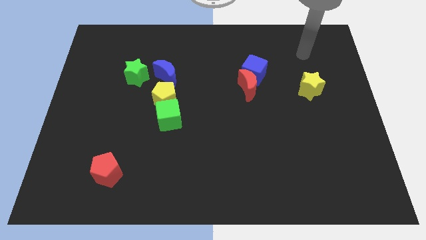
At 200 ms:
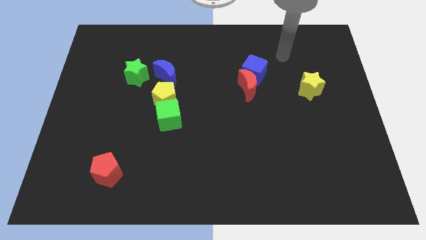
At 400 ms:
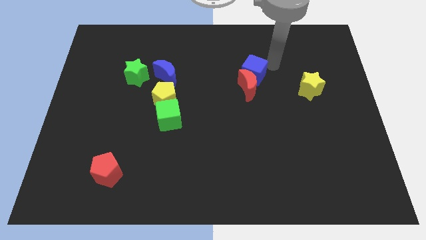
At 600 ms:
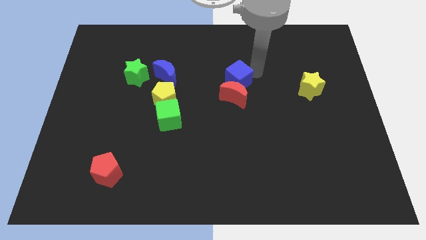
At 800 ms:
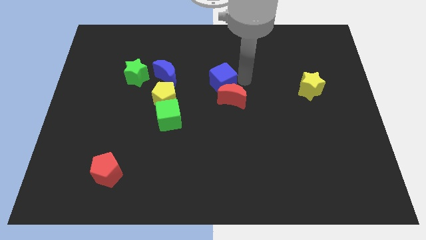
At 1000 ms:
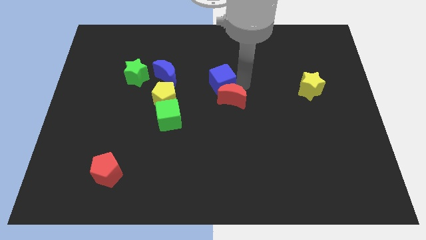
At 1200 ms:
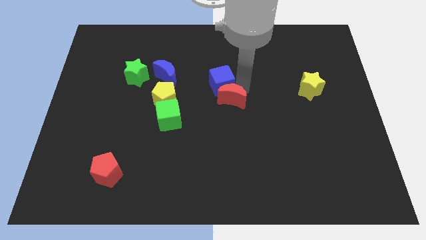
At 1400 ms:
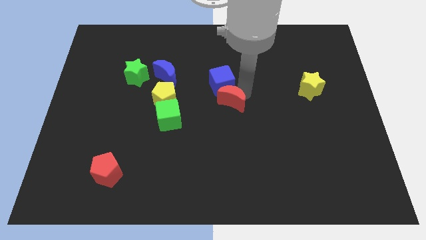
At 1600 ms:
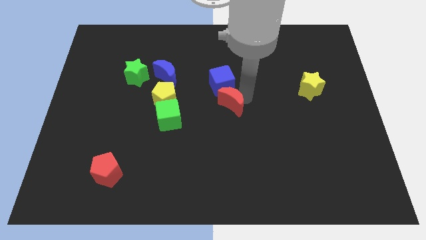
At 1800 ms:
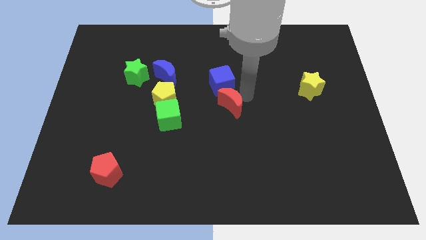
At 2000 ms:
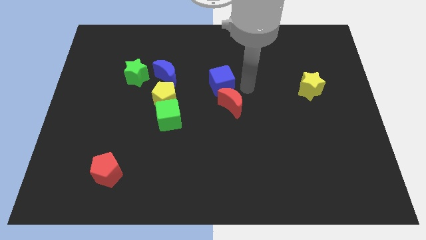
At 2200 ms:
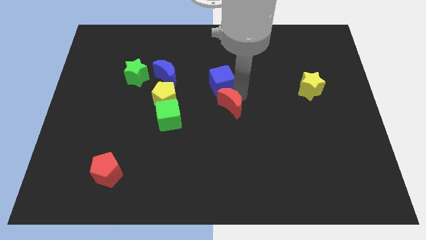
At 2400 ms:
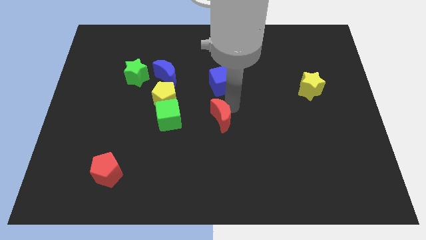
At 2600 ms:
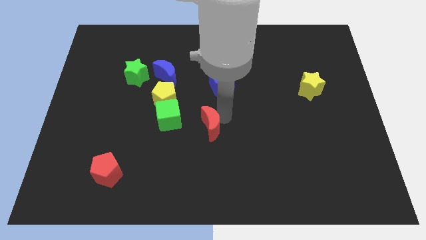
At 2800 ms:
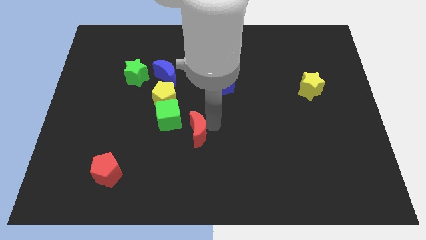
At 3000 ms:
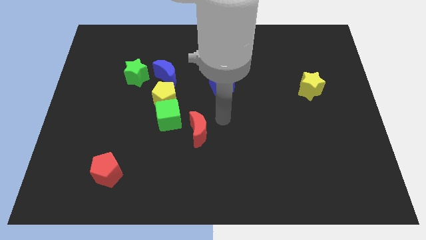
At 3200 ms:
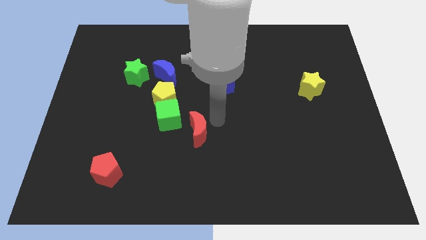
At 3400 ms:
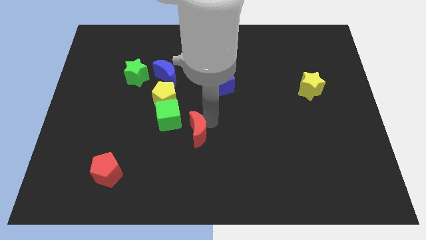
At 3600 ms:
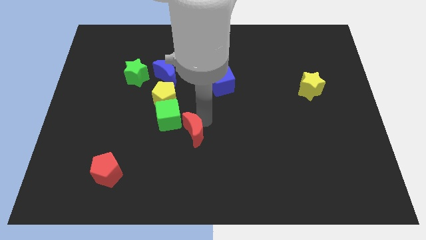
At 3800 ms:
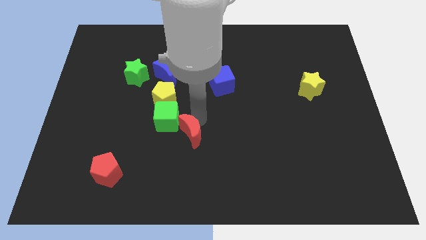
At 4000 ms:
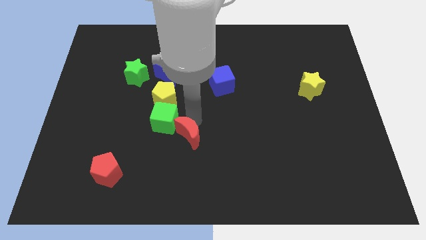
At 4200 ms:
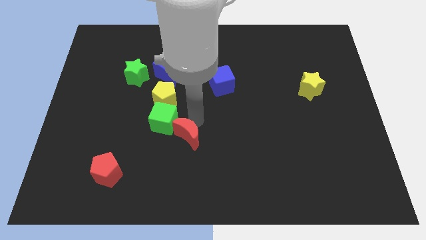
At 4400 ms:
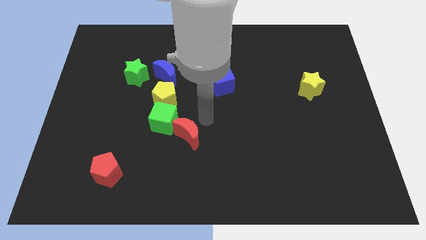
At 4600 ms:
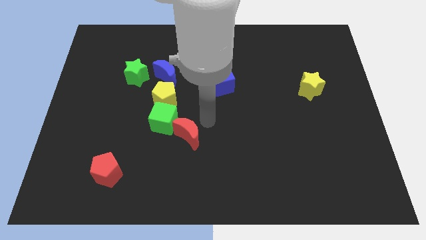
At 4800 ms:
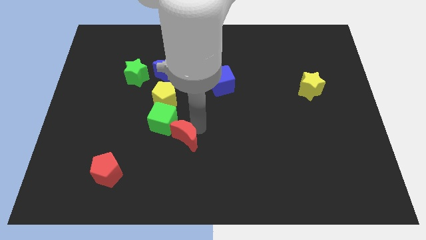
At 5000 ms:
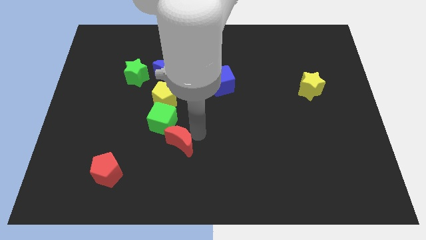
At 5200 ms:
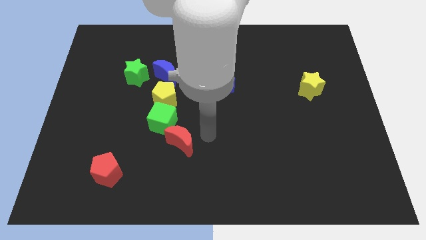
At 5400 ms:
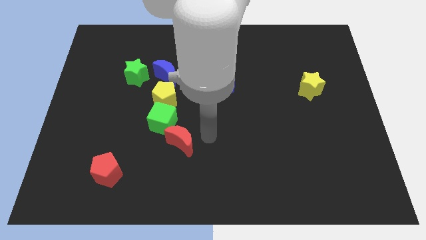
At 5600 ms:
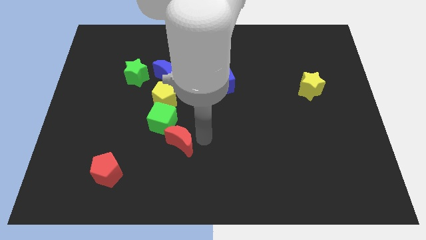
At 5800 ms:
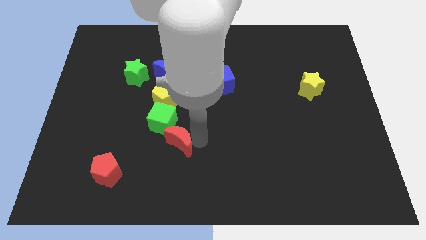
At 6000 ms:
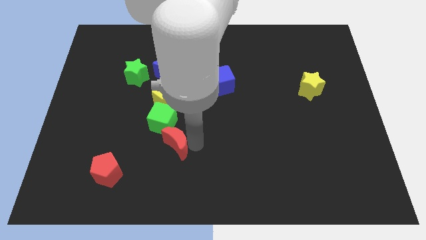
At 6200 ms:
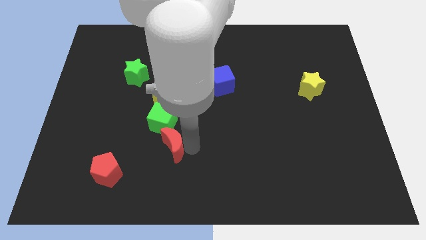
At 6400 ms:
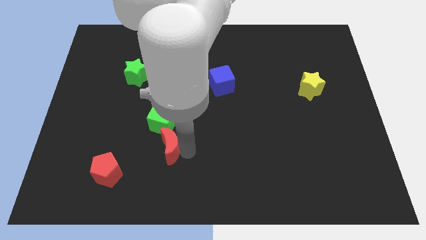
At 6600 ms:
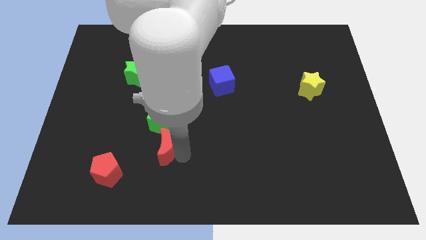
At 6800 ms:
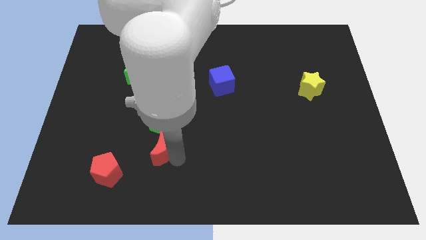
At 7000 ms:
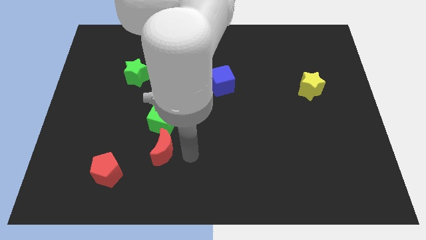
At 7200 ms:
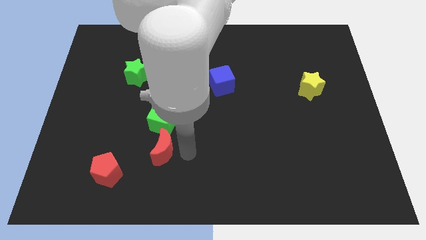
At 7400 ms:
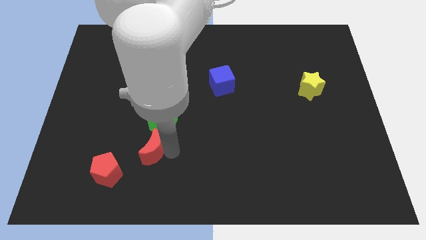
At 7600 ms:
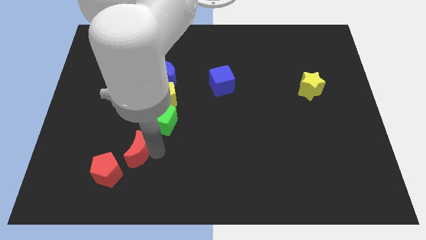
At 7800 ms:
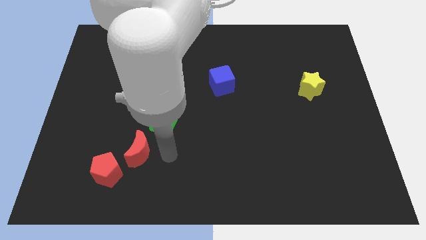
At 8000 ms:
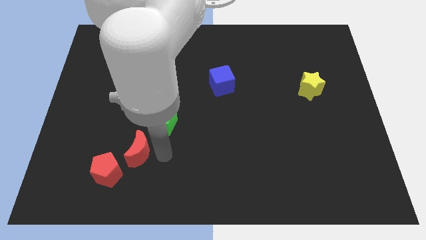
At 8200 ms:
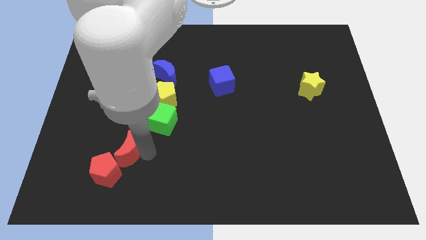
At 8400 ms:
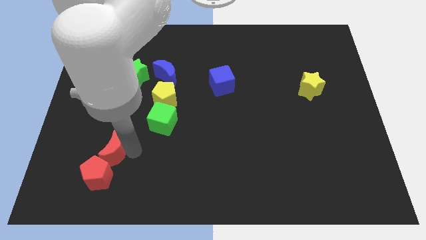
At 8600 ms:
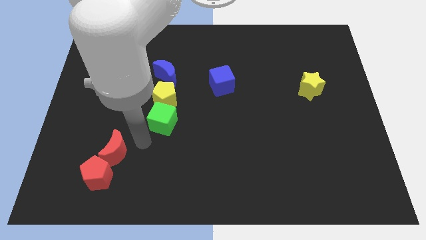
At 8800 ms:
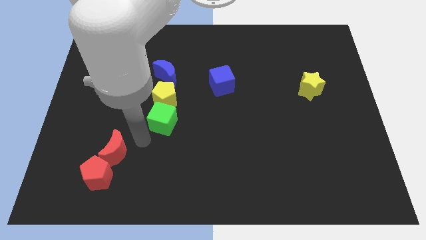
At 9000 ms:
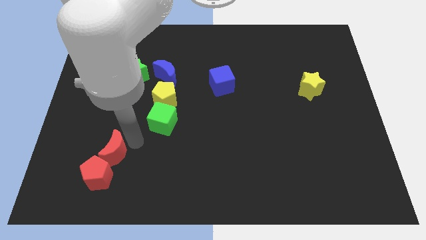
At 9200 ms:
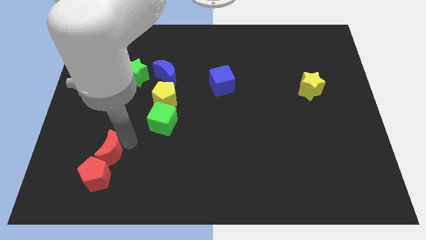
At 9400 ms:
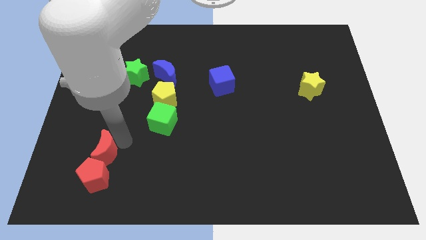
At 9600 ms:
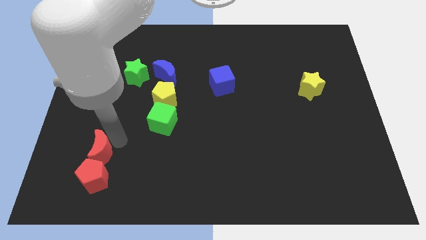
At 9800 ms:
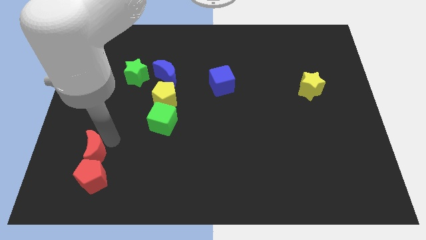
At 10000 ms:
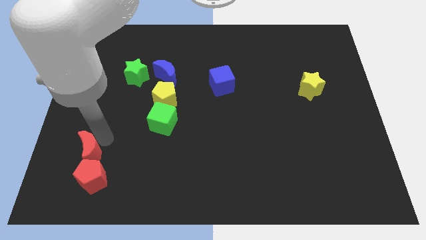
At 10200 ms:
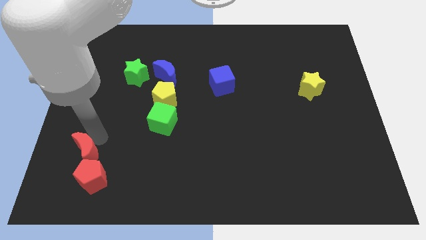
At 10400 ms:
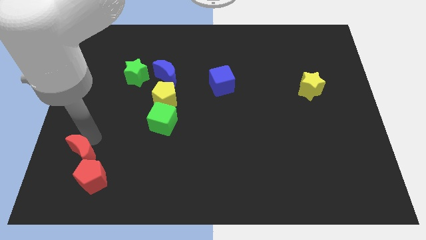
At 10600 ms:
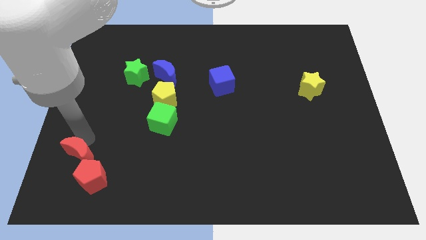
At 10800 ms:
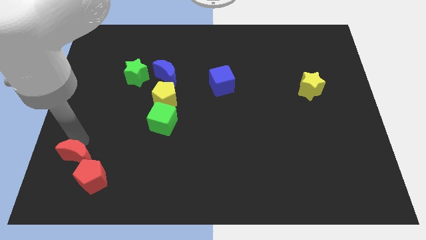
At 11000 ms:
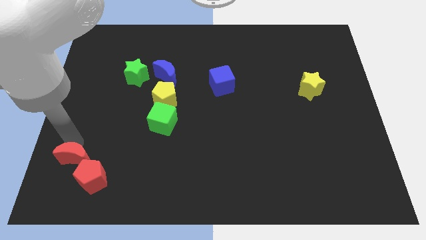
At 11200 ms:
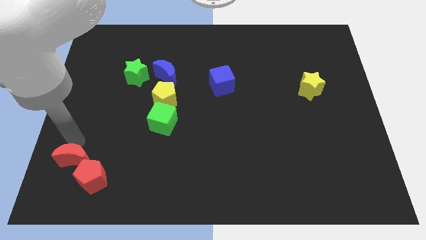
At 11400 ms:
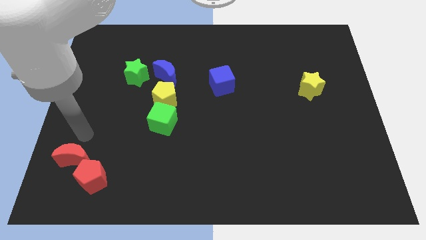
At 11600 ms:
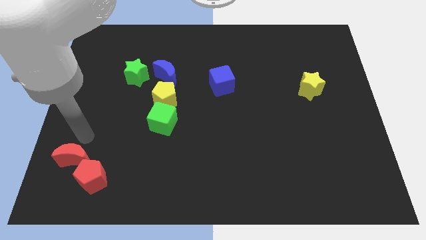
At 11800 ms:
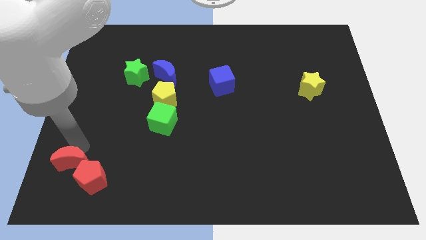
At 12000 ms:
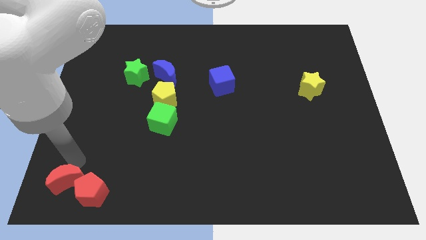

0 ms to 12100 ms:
put the red moon to the bottom left

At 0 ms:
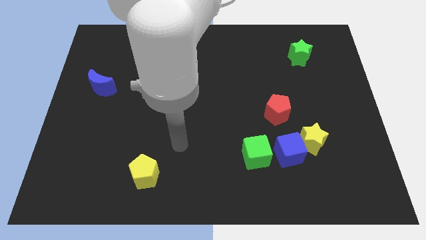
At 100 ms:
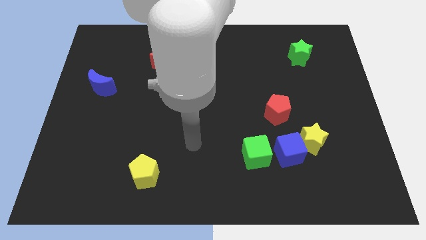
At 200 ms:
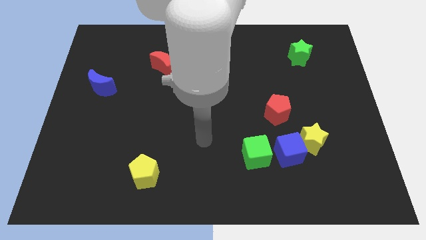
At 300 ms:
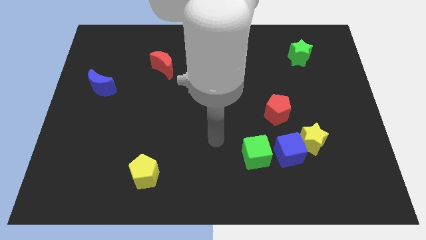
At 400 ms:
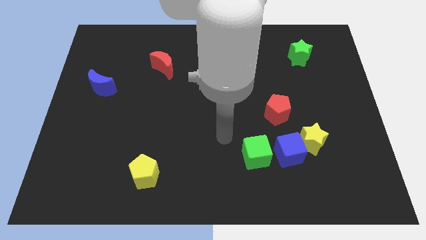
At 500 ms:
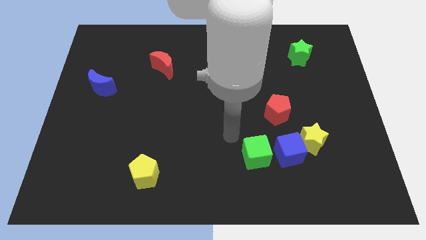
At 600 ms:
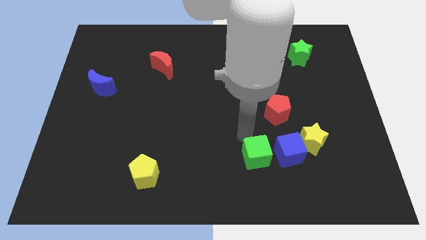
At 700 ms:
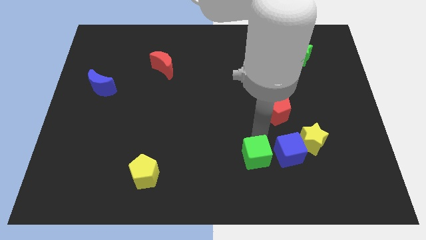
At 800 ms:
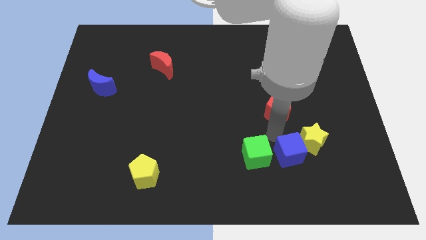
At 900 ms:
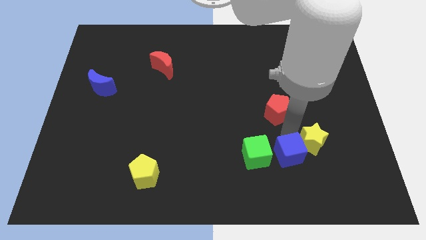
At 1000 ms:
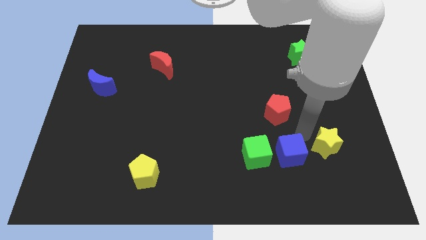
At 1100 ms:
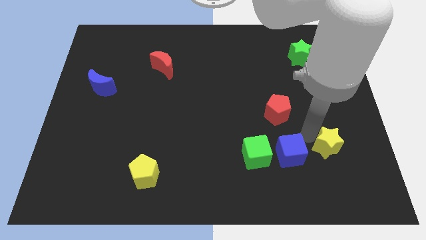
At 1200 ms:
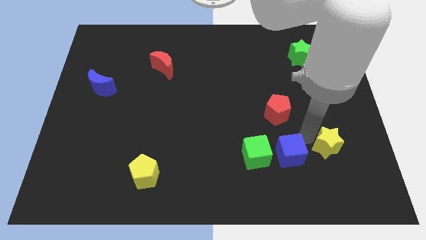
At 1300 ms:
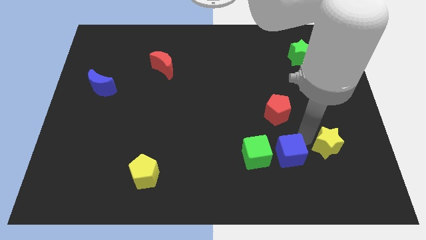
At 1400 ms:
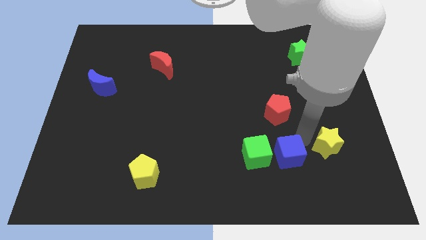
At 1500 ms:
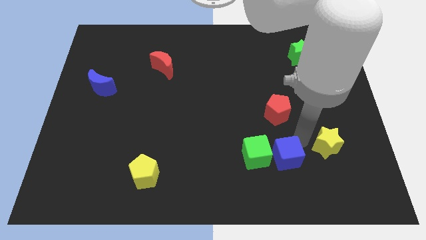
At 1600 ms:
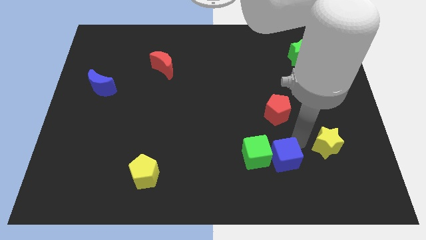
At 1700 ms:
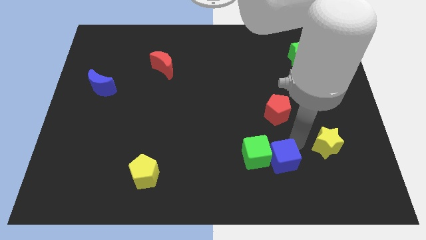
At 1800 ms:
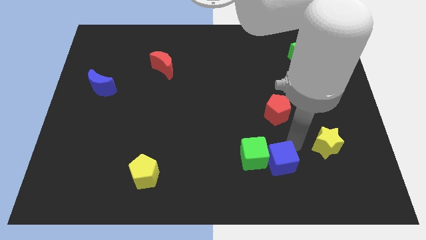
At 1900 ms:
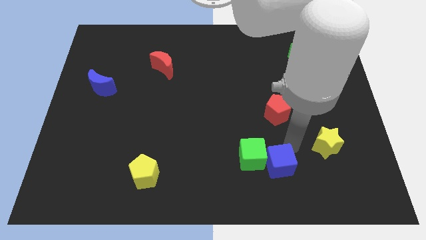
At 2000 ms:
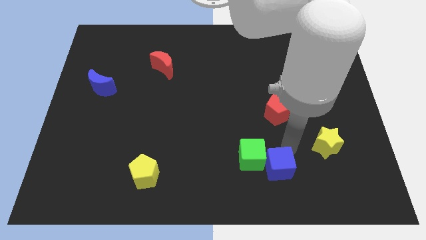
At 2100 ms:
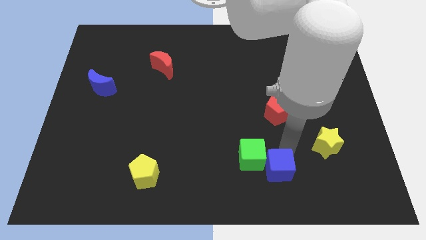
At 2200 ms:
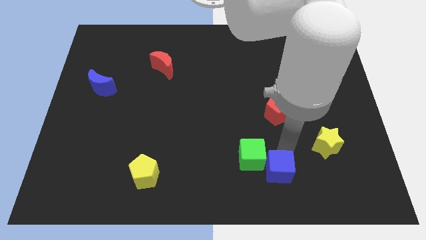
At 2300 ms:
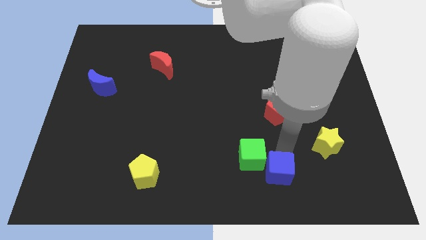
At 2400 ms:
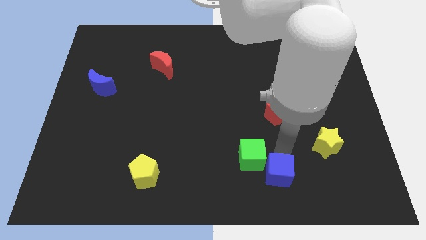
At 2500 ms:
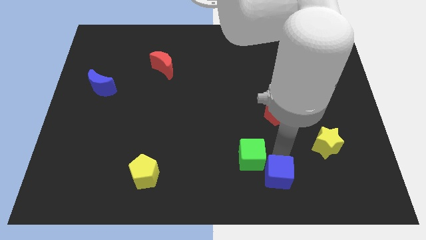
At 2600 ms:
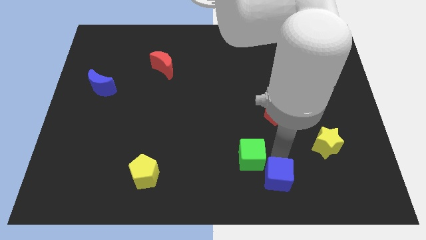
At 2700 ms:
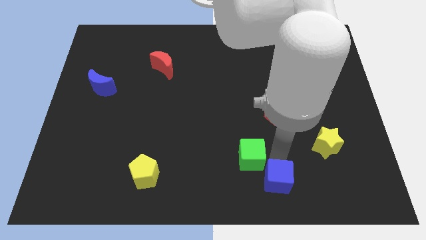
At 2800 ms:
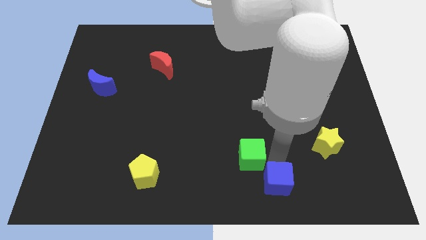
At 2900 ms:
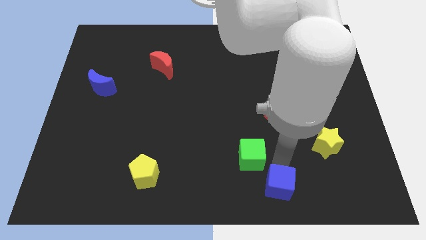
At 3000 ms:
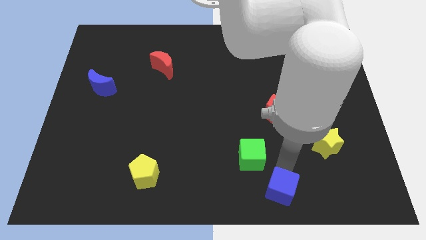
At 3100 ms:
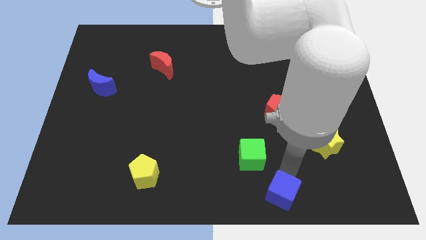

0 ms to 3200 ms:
move the blue cube to the bottom side
